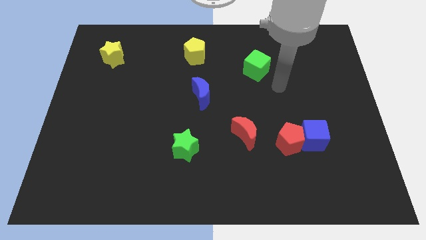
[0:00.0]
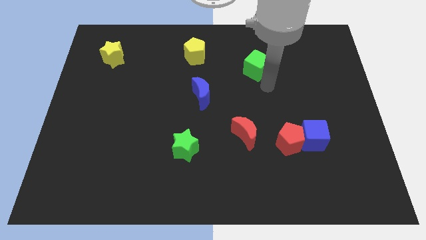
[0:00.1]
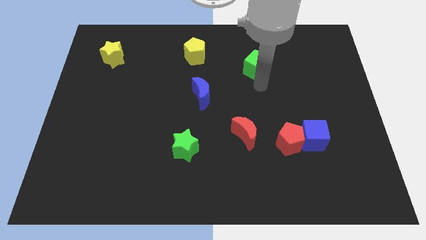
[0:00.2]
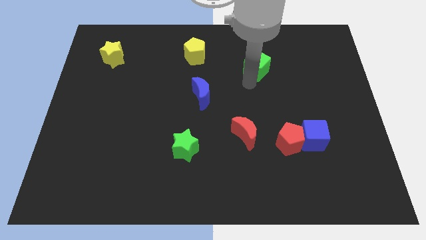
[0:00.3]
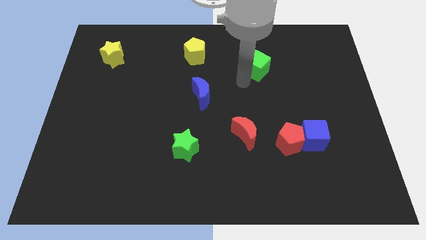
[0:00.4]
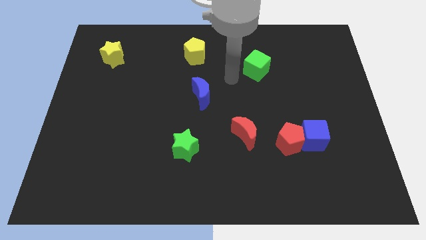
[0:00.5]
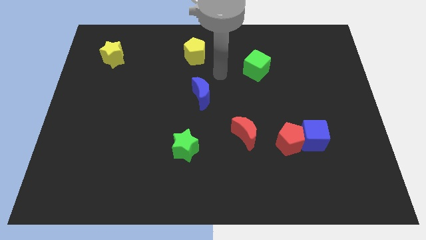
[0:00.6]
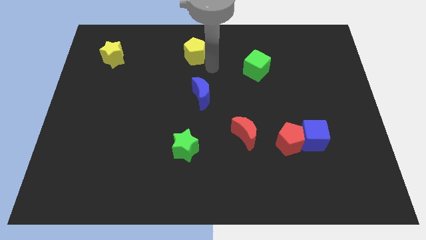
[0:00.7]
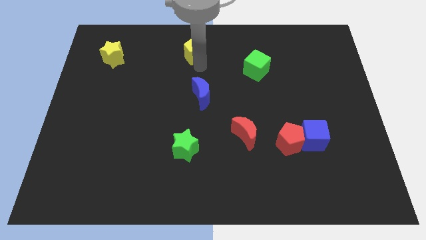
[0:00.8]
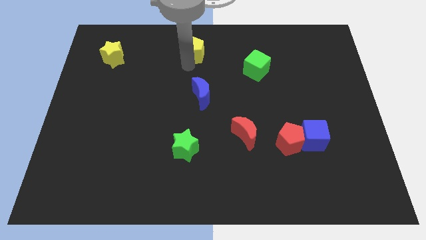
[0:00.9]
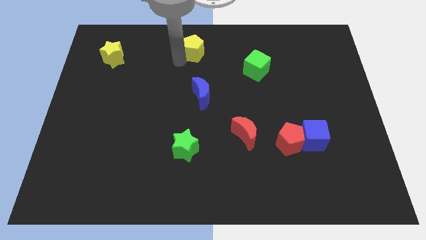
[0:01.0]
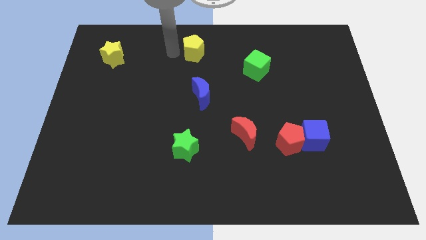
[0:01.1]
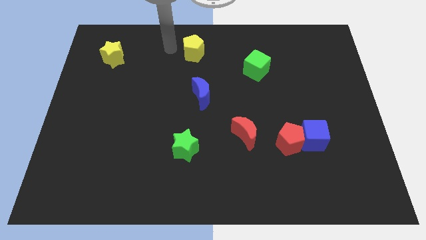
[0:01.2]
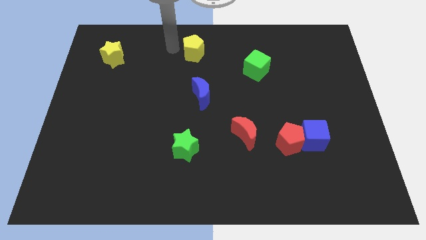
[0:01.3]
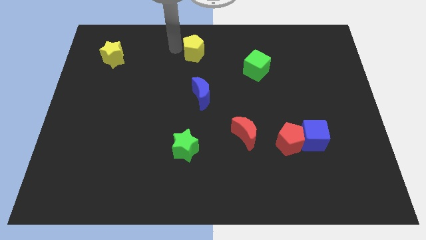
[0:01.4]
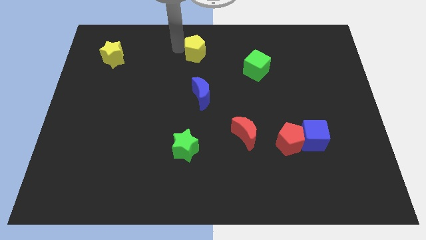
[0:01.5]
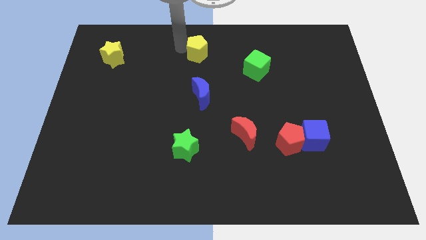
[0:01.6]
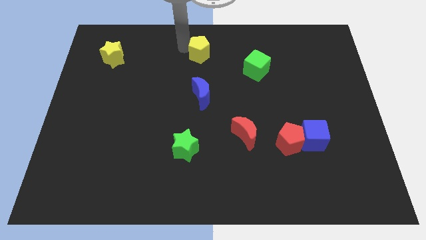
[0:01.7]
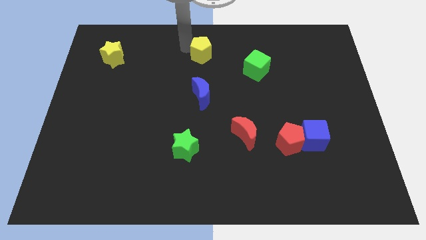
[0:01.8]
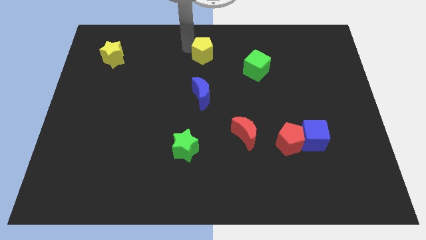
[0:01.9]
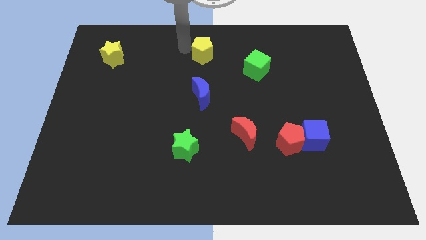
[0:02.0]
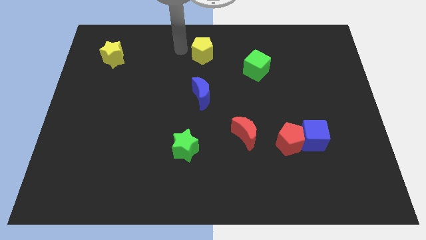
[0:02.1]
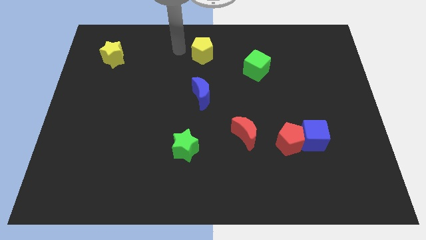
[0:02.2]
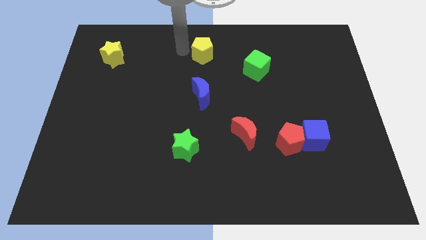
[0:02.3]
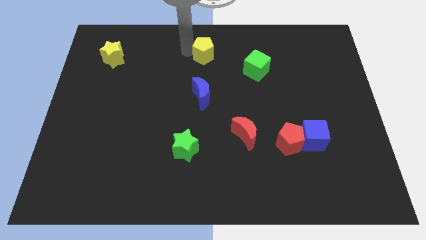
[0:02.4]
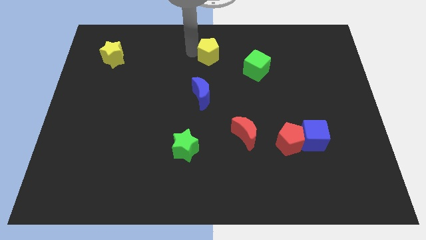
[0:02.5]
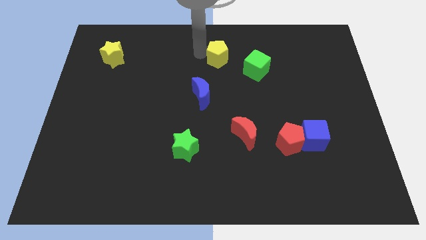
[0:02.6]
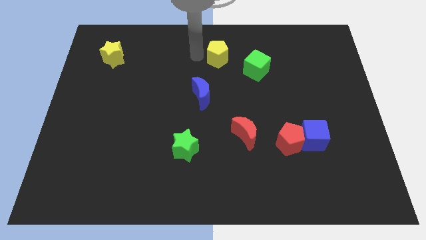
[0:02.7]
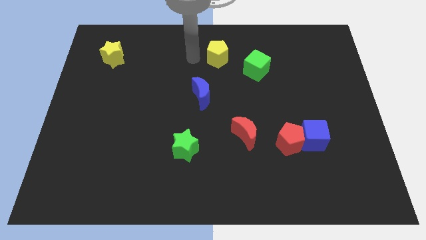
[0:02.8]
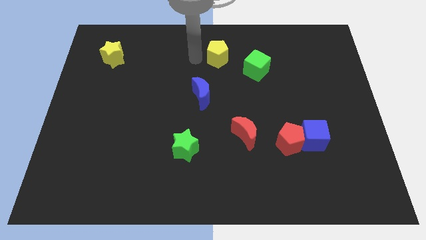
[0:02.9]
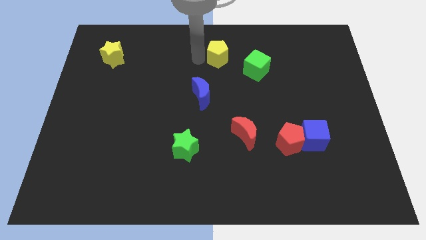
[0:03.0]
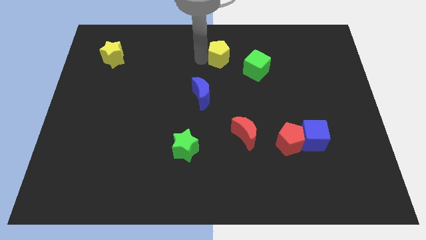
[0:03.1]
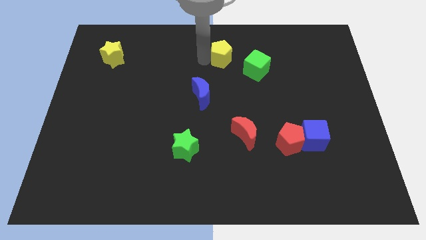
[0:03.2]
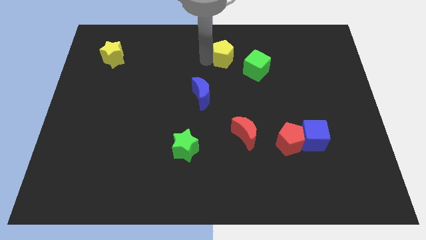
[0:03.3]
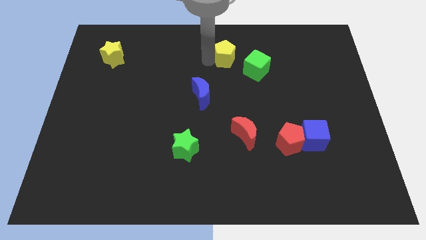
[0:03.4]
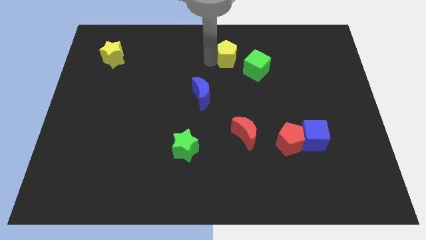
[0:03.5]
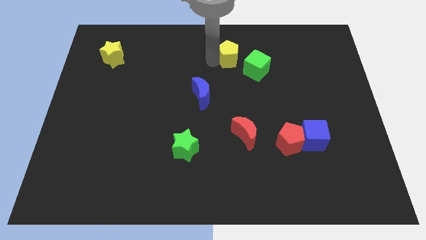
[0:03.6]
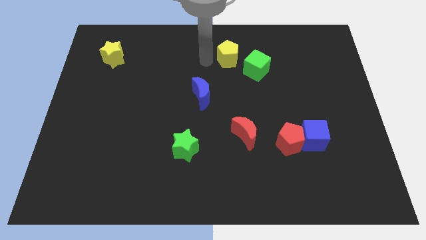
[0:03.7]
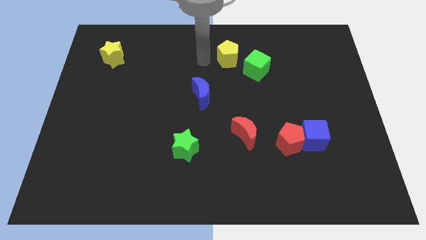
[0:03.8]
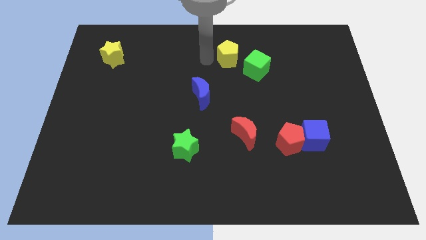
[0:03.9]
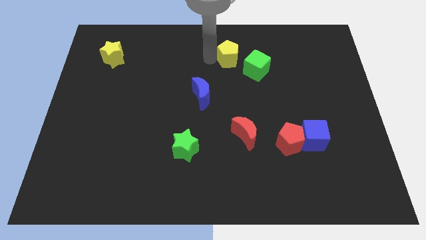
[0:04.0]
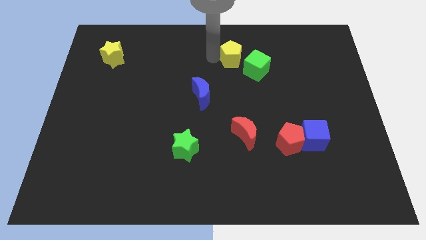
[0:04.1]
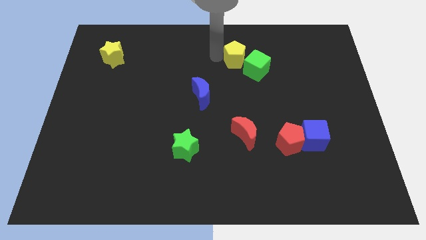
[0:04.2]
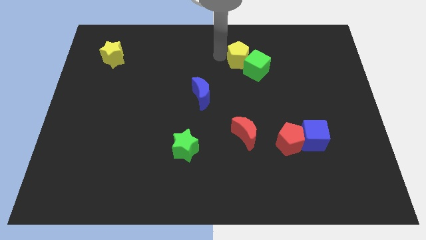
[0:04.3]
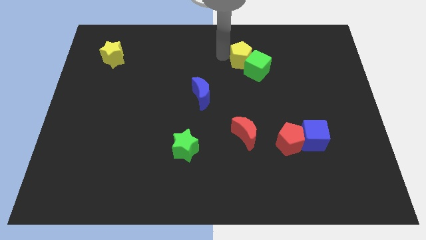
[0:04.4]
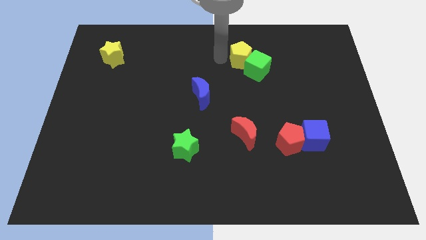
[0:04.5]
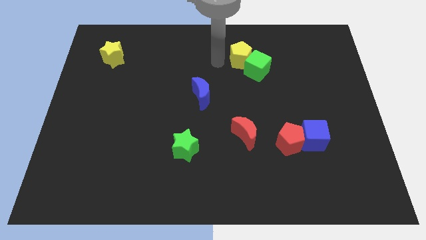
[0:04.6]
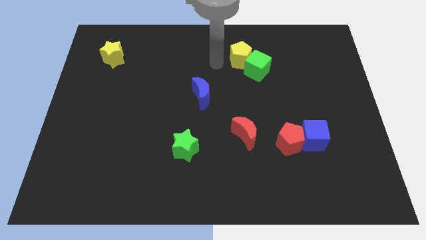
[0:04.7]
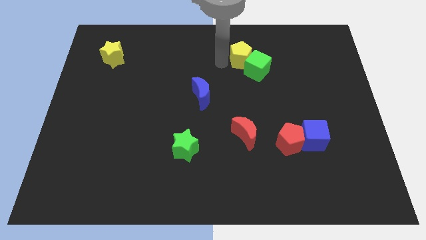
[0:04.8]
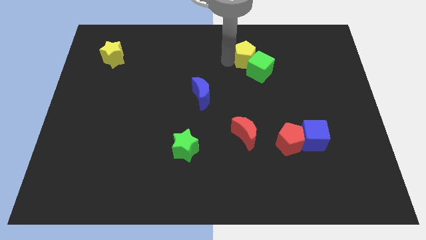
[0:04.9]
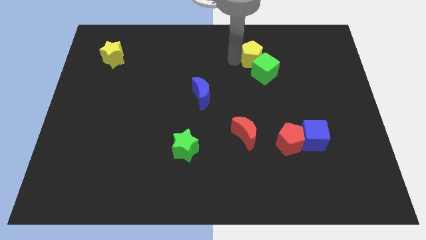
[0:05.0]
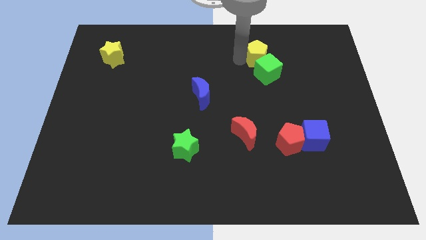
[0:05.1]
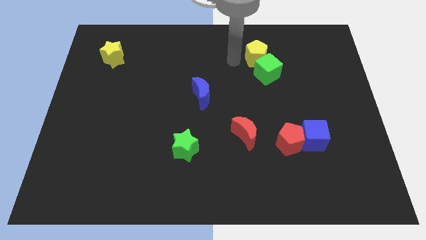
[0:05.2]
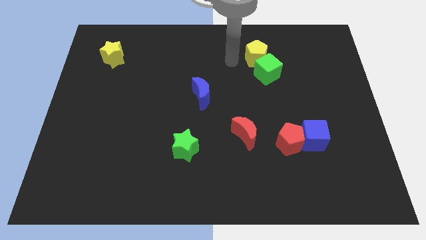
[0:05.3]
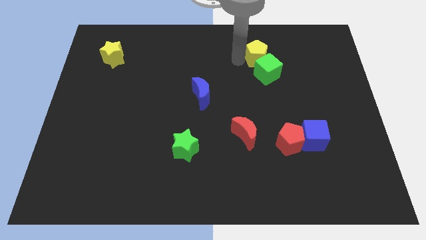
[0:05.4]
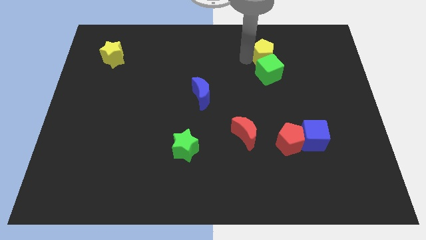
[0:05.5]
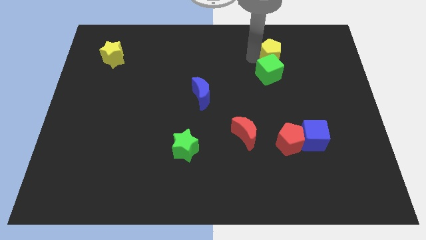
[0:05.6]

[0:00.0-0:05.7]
slide the yellow pentagon to the right

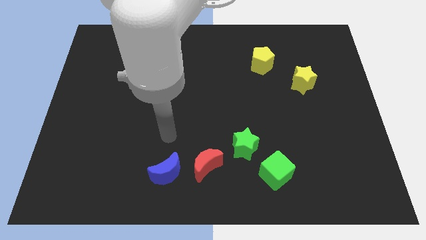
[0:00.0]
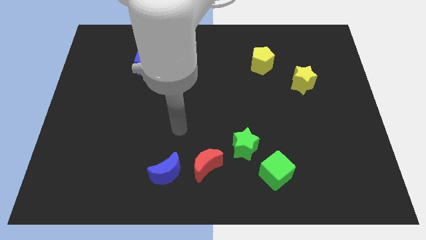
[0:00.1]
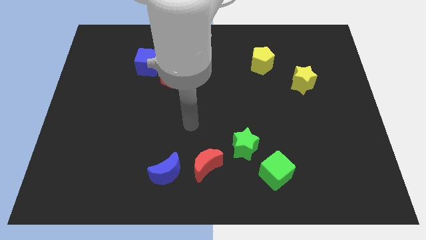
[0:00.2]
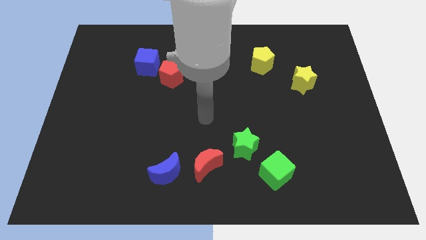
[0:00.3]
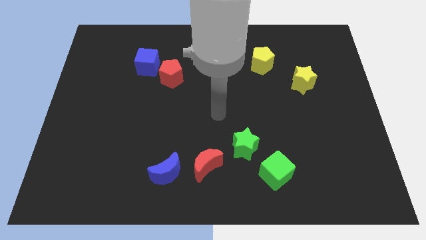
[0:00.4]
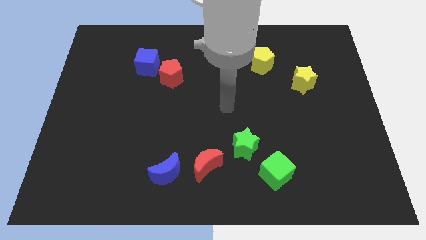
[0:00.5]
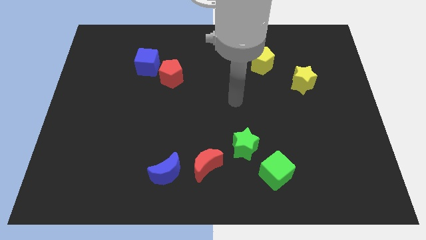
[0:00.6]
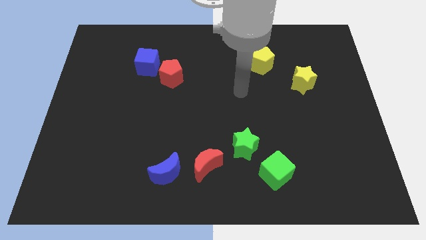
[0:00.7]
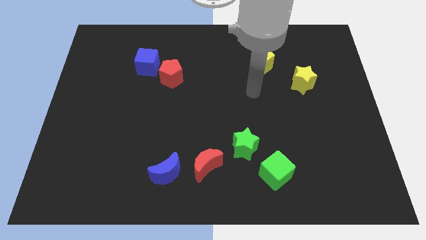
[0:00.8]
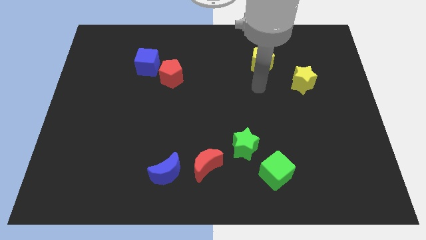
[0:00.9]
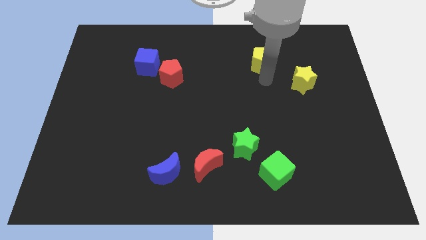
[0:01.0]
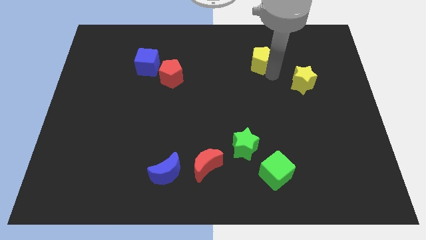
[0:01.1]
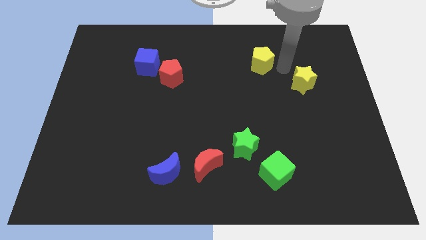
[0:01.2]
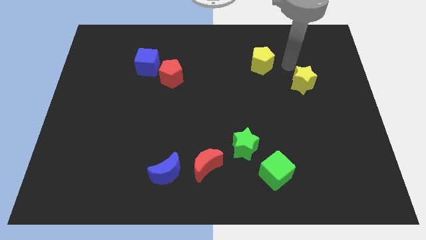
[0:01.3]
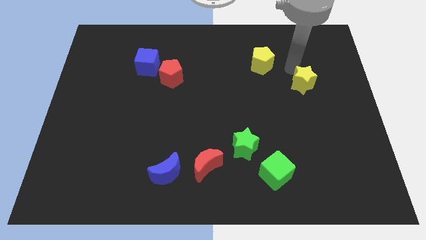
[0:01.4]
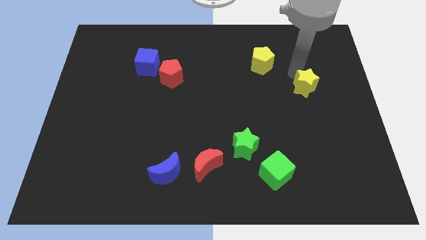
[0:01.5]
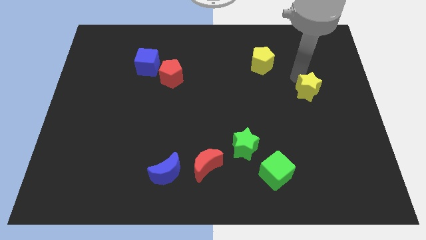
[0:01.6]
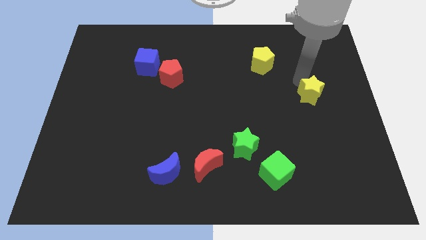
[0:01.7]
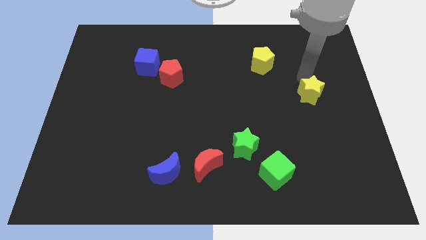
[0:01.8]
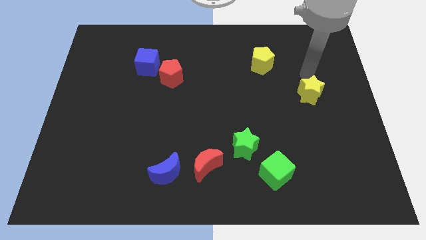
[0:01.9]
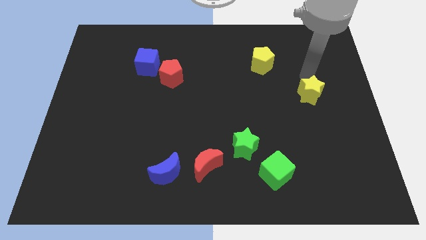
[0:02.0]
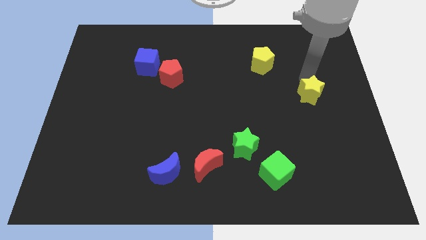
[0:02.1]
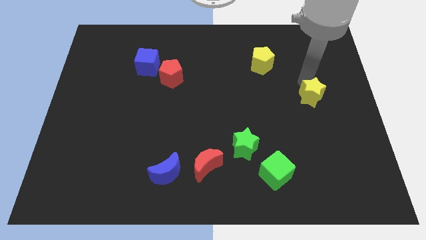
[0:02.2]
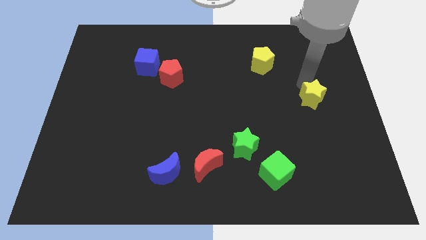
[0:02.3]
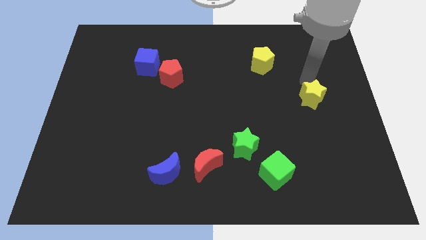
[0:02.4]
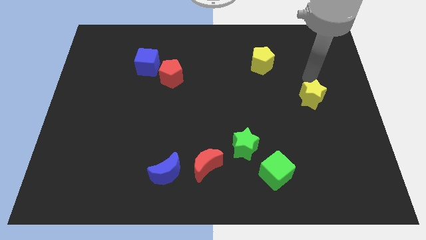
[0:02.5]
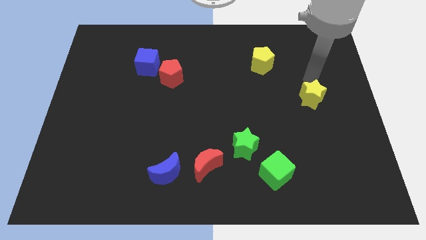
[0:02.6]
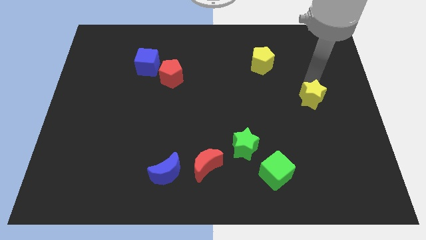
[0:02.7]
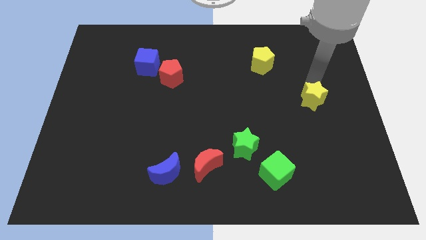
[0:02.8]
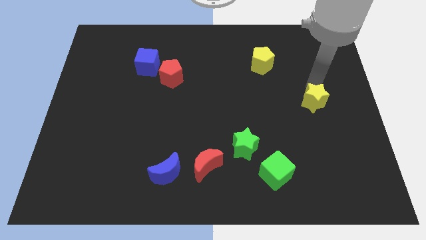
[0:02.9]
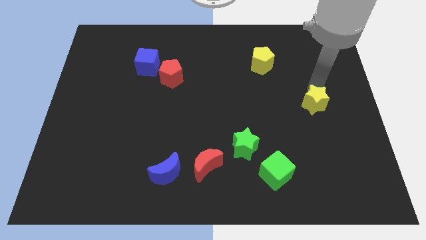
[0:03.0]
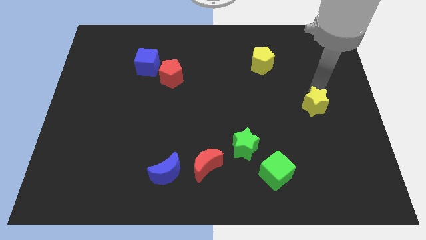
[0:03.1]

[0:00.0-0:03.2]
slightly move the yellow star downwards
